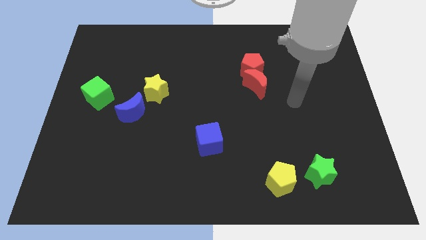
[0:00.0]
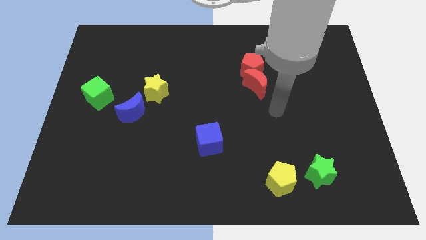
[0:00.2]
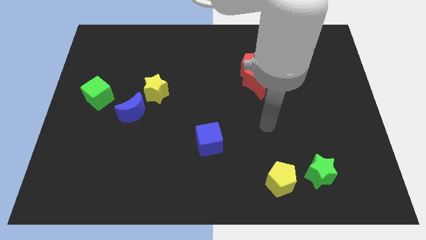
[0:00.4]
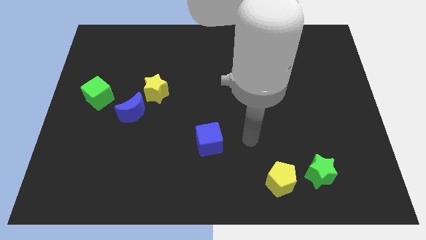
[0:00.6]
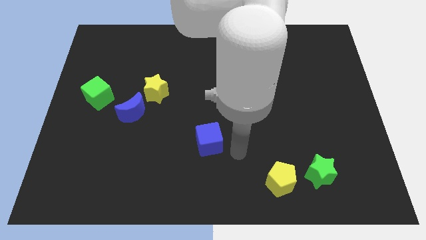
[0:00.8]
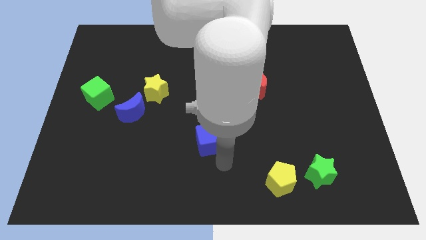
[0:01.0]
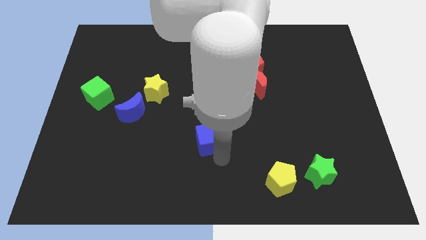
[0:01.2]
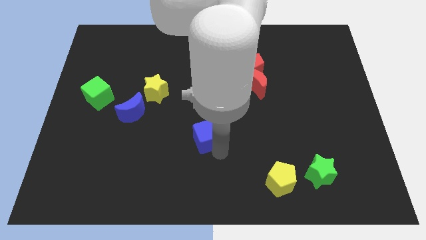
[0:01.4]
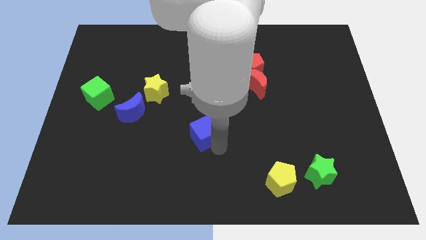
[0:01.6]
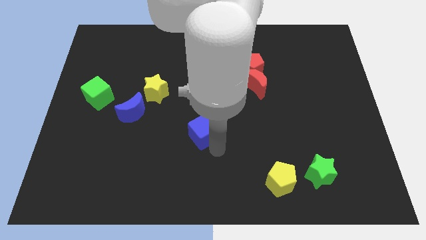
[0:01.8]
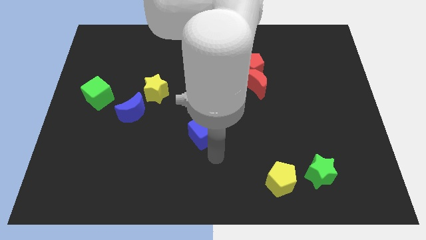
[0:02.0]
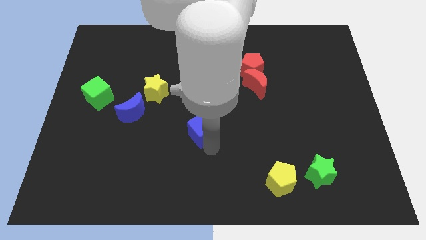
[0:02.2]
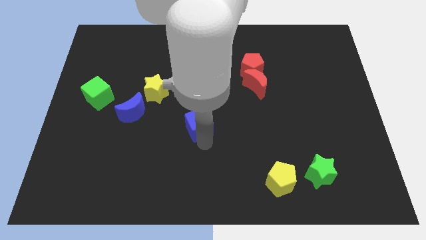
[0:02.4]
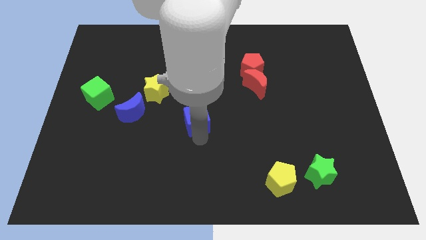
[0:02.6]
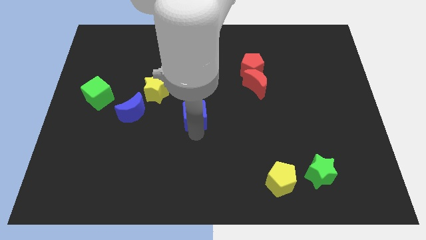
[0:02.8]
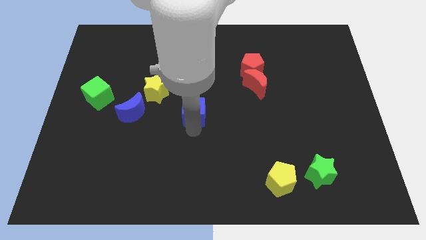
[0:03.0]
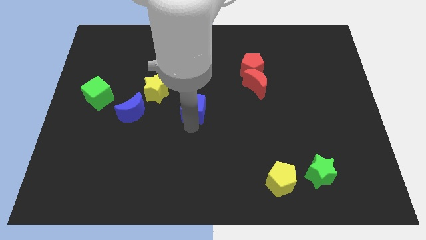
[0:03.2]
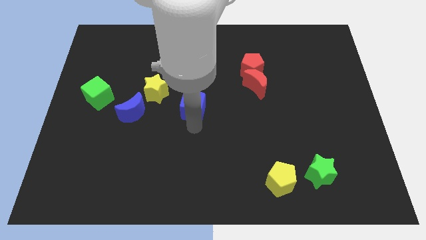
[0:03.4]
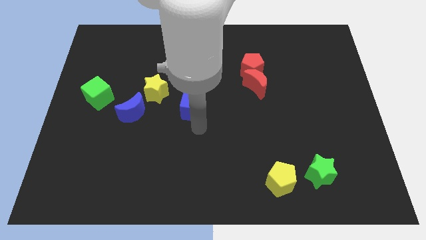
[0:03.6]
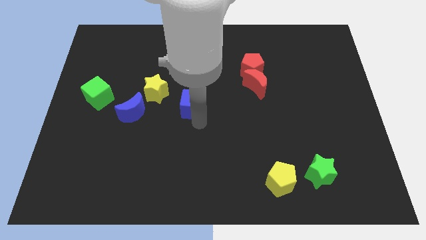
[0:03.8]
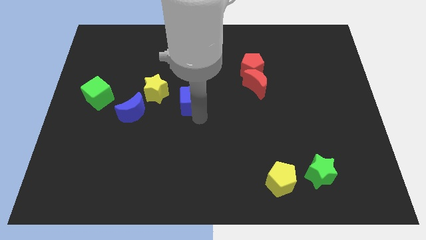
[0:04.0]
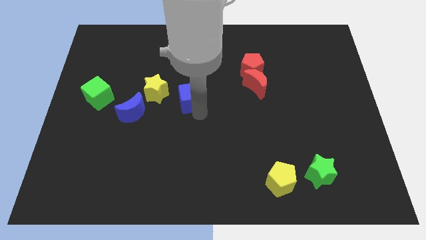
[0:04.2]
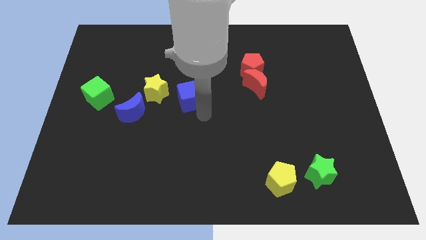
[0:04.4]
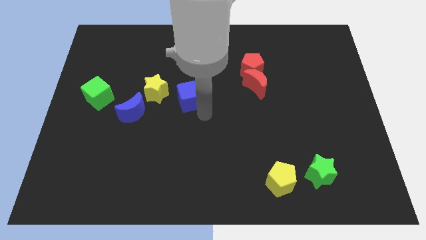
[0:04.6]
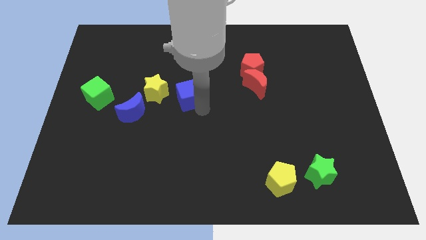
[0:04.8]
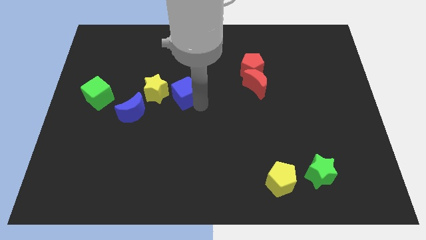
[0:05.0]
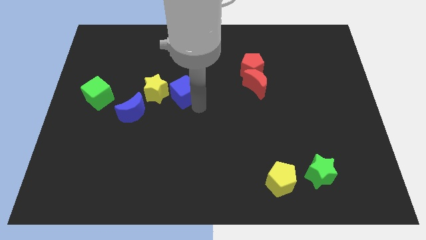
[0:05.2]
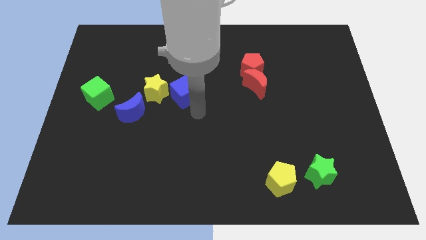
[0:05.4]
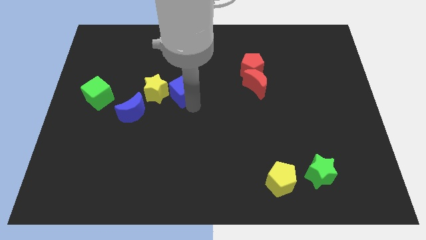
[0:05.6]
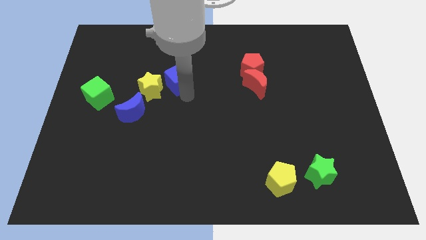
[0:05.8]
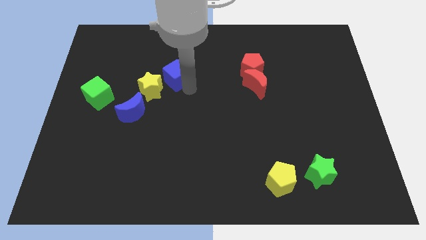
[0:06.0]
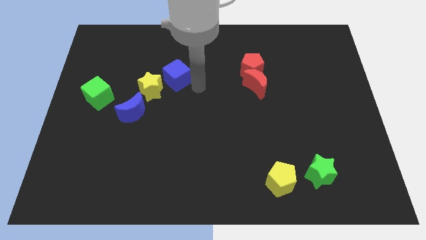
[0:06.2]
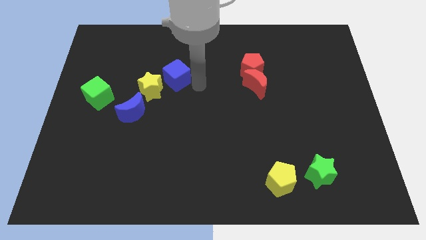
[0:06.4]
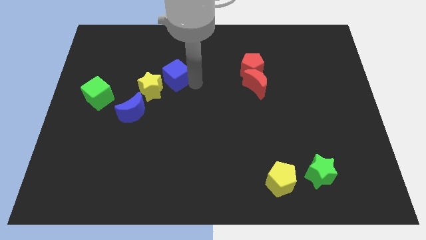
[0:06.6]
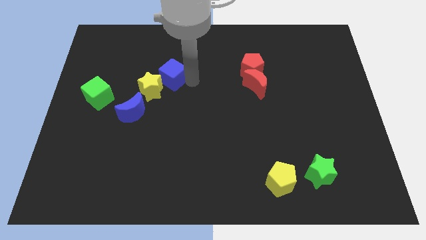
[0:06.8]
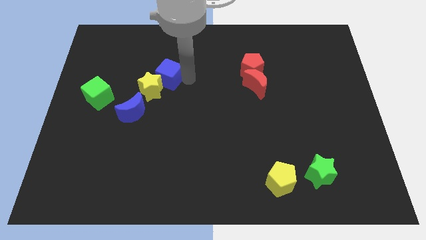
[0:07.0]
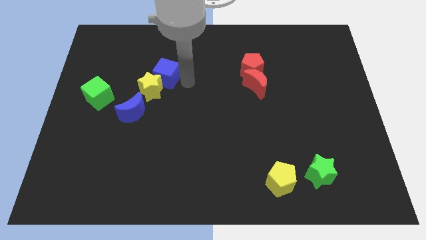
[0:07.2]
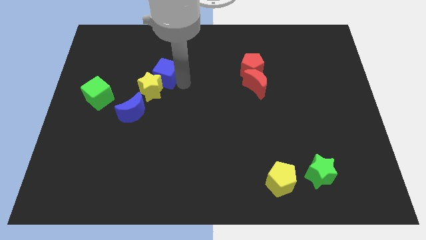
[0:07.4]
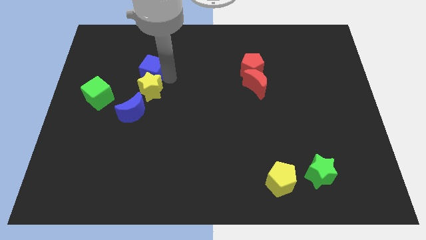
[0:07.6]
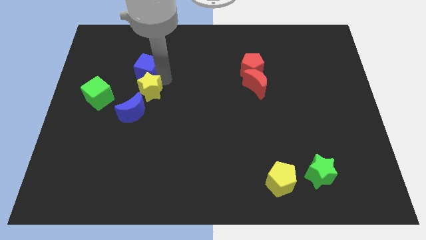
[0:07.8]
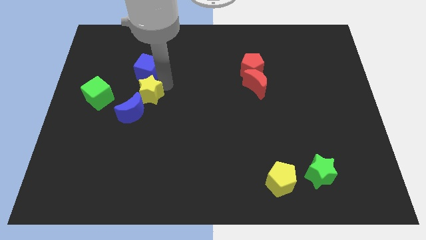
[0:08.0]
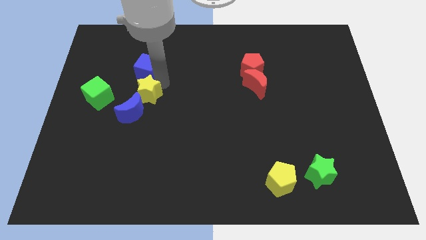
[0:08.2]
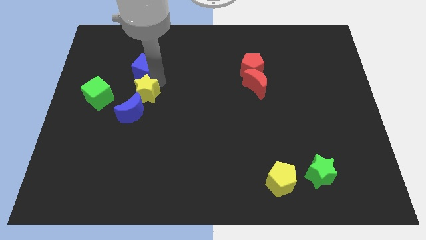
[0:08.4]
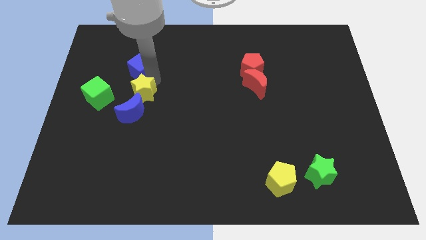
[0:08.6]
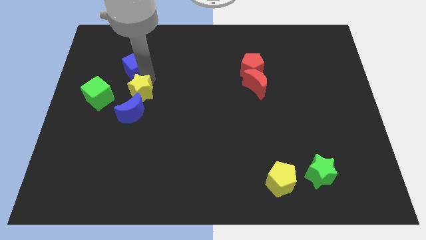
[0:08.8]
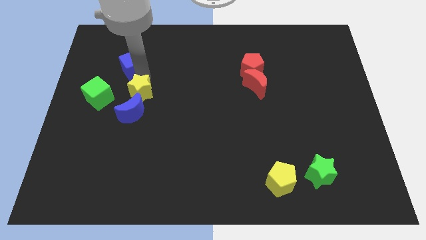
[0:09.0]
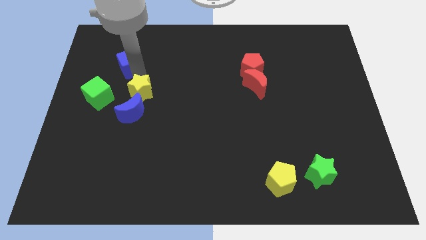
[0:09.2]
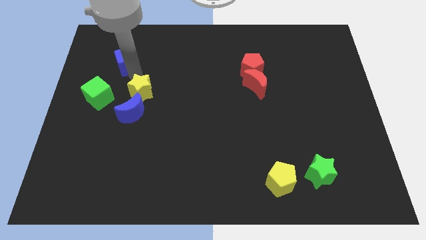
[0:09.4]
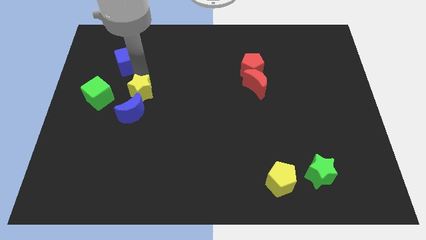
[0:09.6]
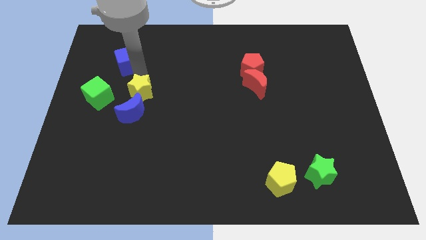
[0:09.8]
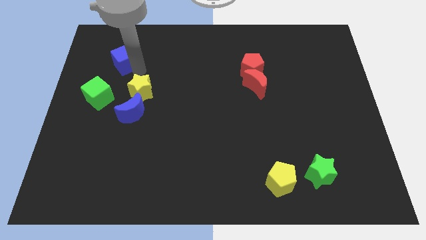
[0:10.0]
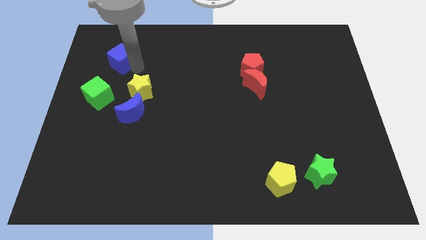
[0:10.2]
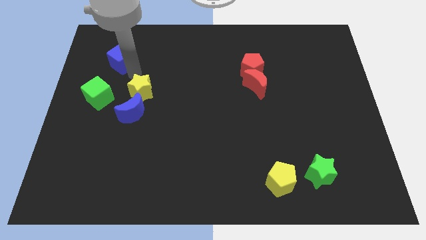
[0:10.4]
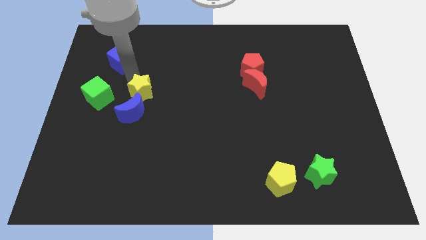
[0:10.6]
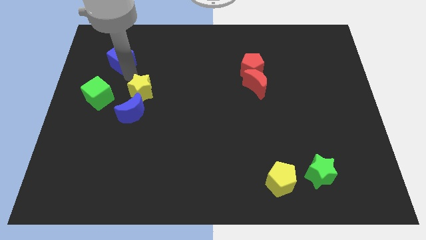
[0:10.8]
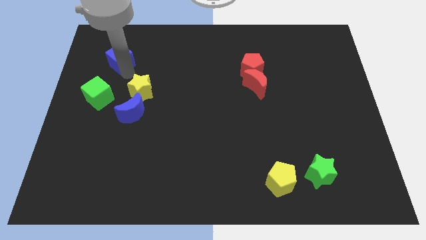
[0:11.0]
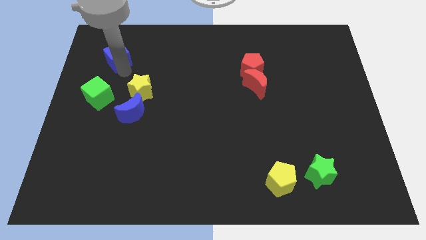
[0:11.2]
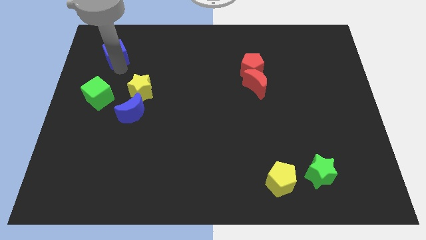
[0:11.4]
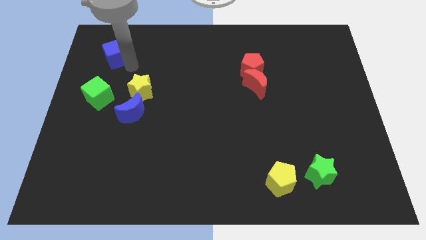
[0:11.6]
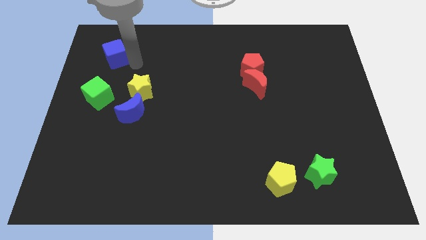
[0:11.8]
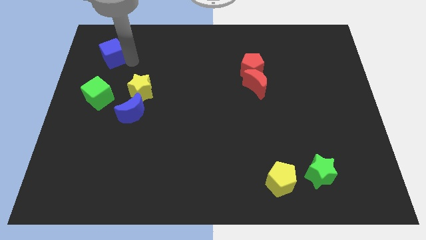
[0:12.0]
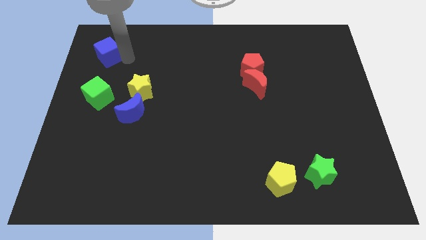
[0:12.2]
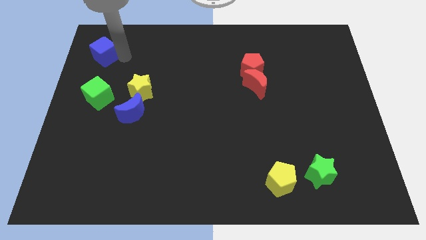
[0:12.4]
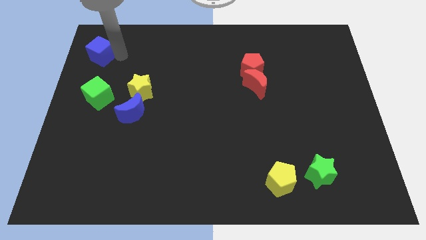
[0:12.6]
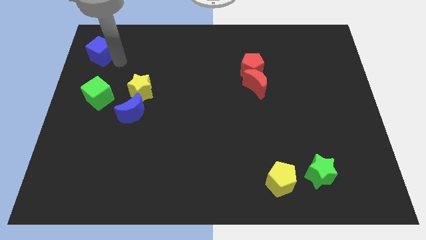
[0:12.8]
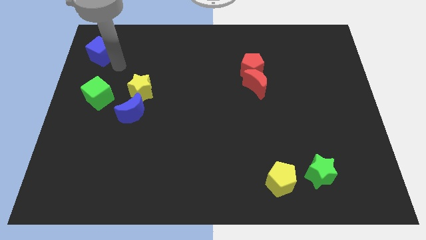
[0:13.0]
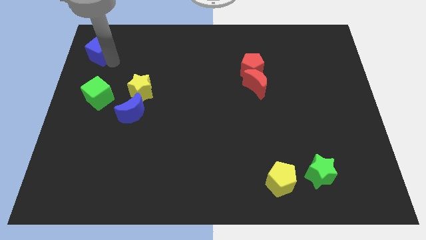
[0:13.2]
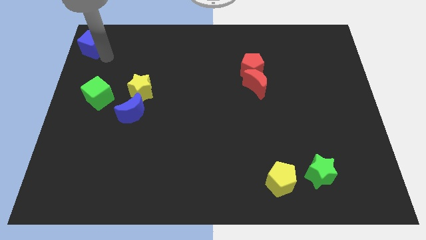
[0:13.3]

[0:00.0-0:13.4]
put the blue cube to the upper left corner
